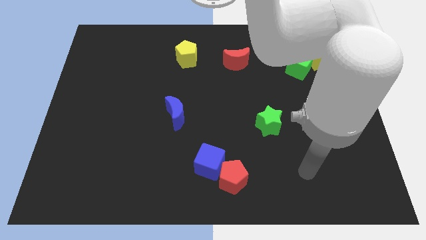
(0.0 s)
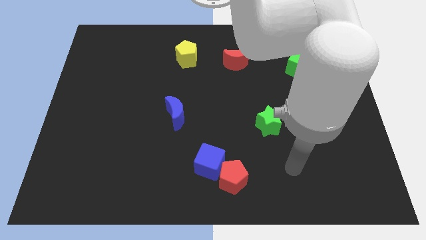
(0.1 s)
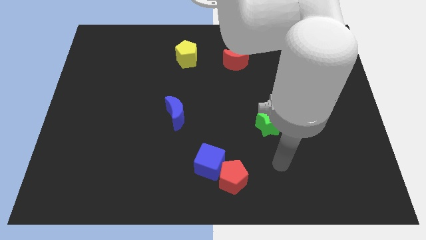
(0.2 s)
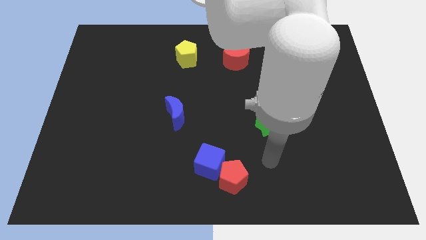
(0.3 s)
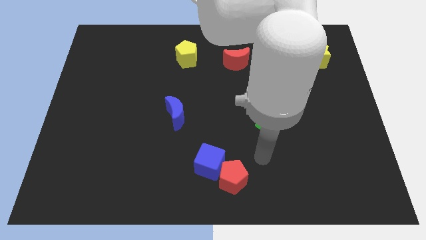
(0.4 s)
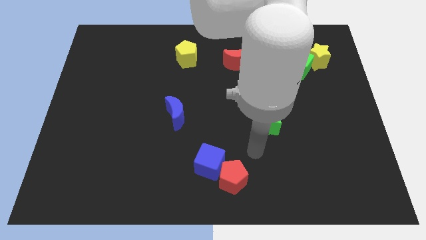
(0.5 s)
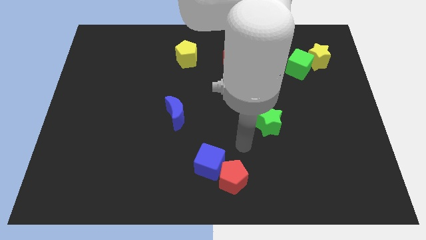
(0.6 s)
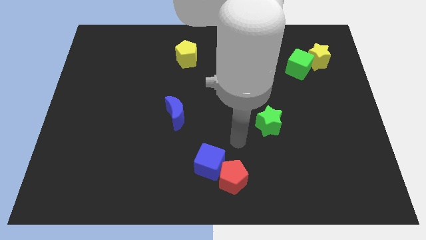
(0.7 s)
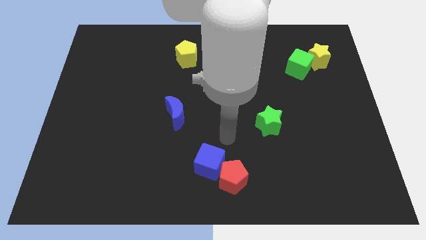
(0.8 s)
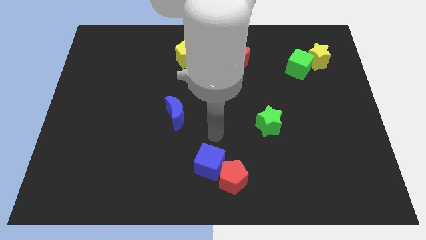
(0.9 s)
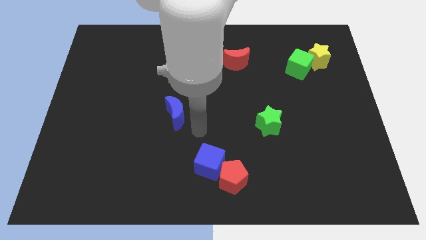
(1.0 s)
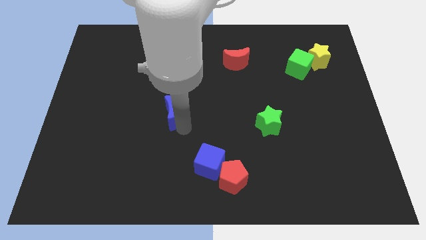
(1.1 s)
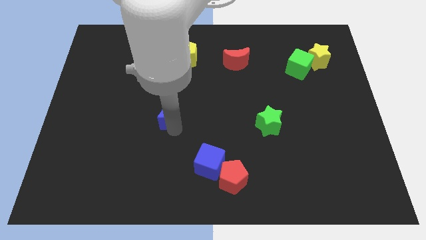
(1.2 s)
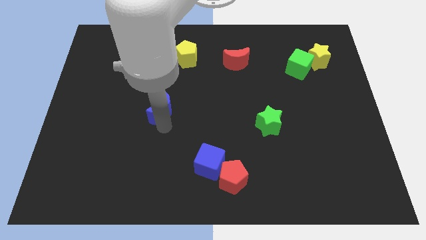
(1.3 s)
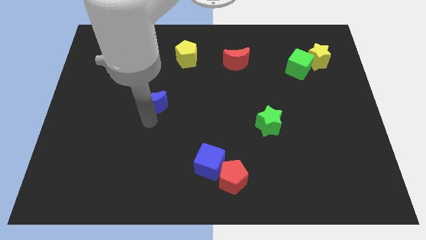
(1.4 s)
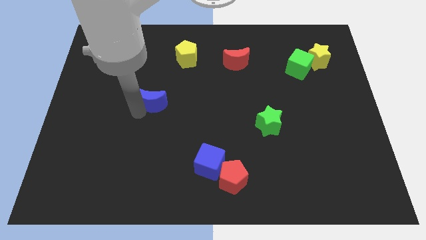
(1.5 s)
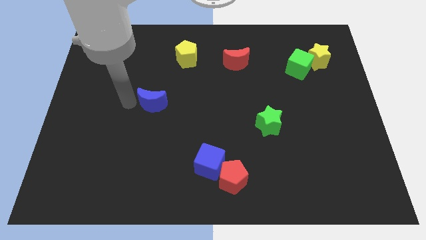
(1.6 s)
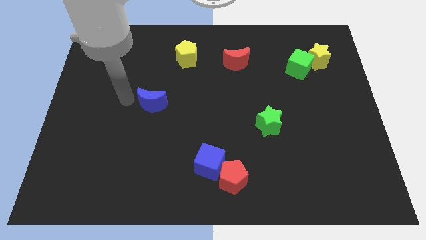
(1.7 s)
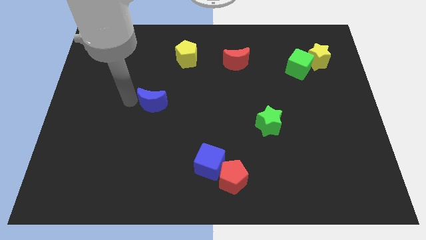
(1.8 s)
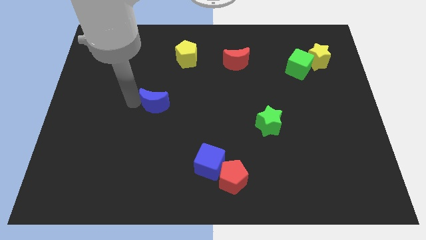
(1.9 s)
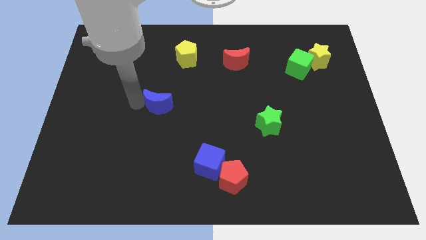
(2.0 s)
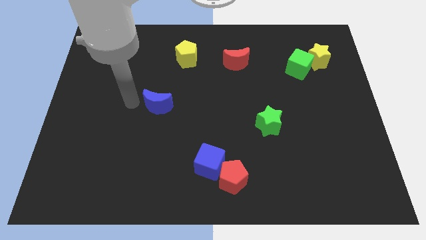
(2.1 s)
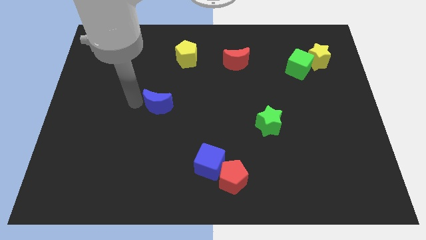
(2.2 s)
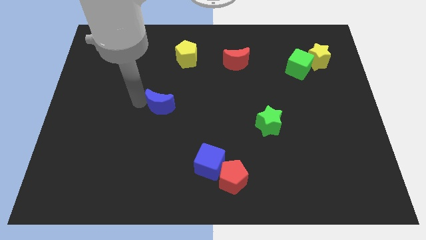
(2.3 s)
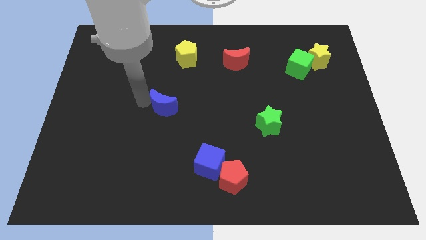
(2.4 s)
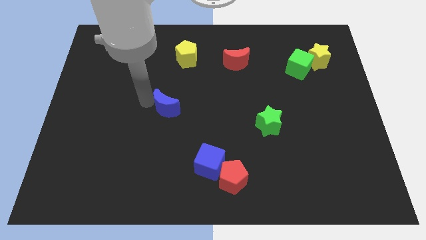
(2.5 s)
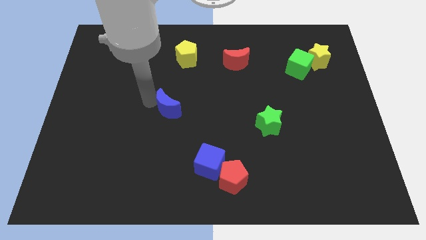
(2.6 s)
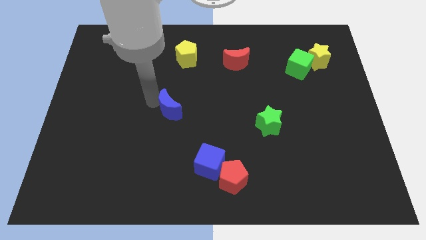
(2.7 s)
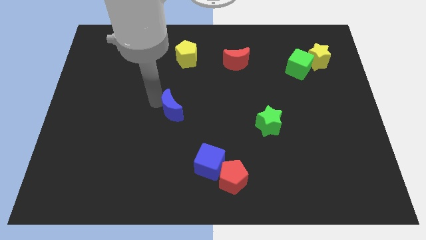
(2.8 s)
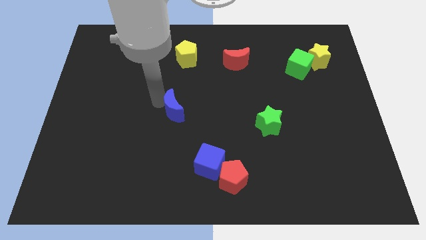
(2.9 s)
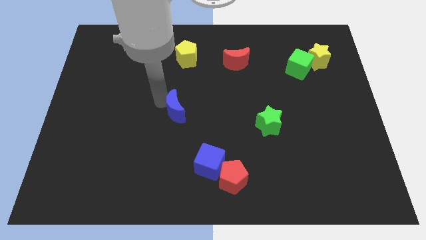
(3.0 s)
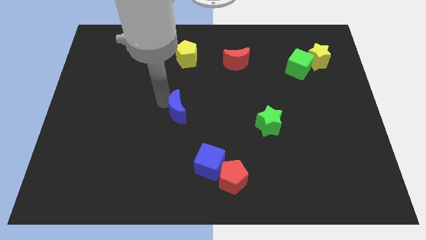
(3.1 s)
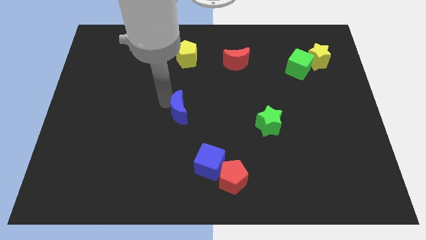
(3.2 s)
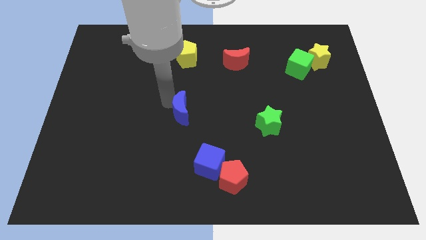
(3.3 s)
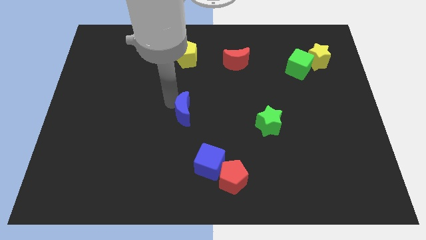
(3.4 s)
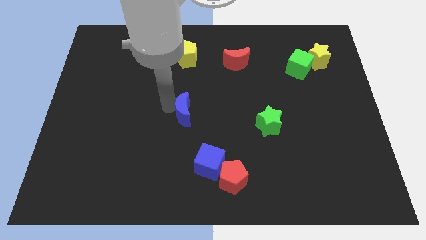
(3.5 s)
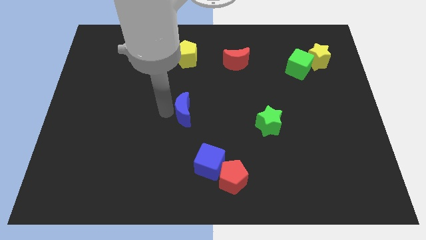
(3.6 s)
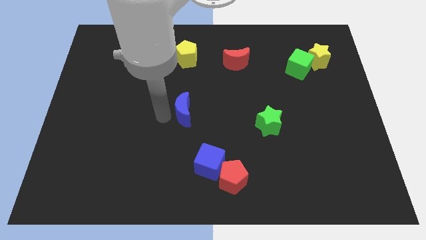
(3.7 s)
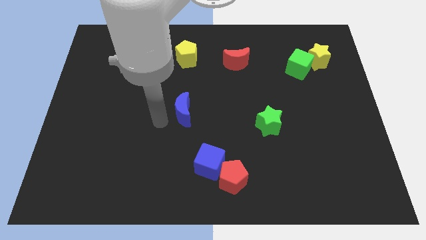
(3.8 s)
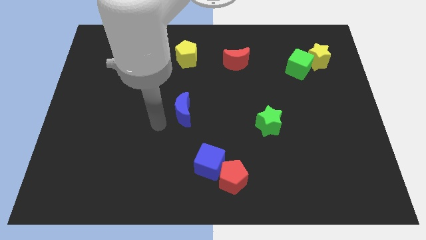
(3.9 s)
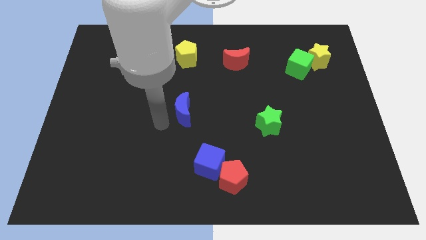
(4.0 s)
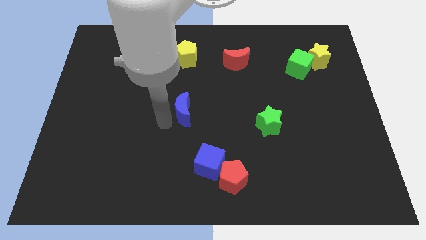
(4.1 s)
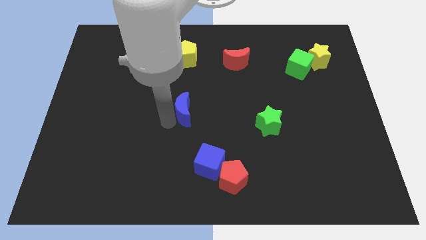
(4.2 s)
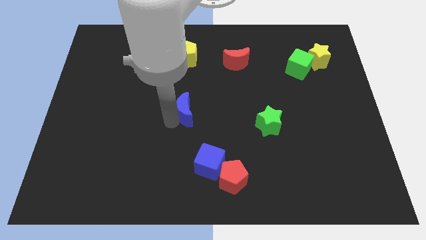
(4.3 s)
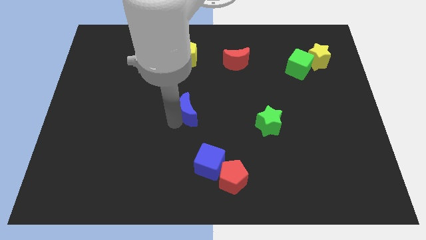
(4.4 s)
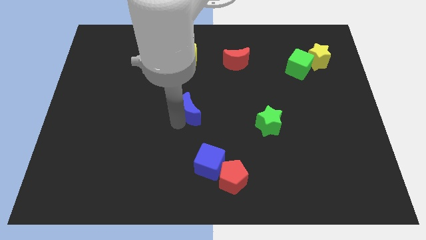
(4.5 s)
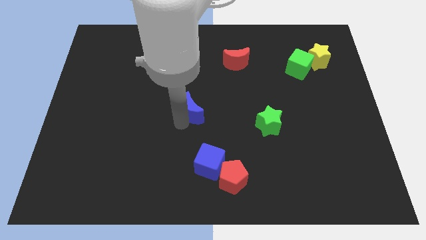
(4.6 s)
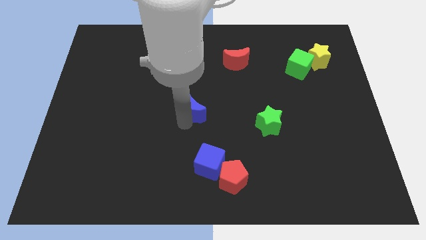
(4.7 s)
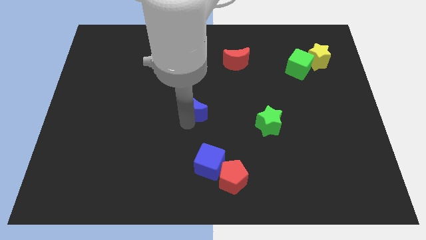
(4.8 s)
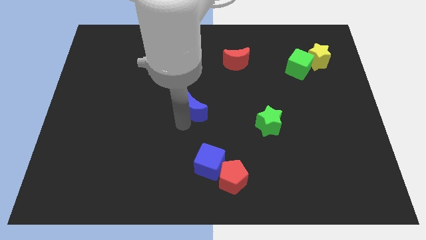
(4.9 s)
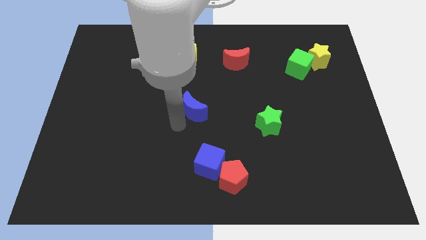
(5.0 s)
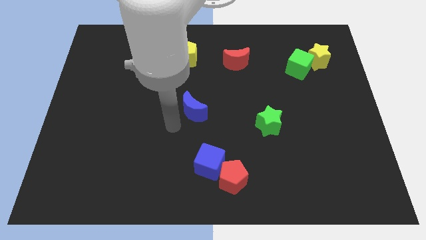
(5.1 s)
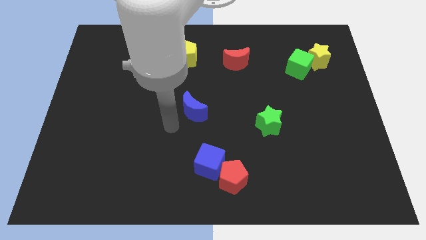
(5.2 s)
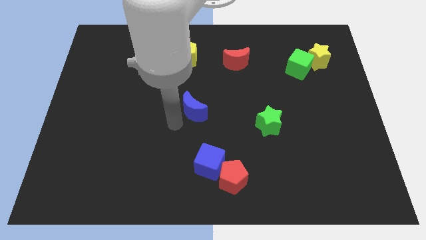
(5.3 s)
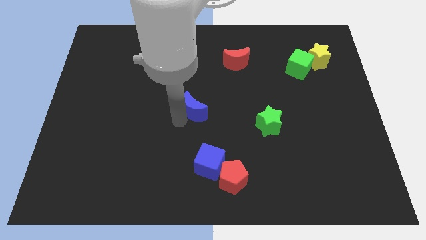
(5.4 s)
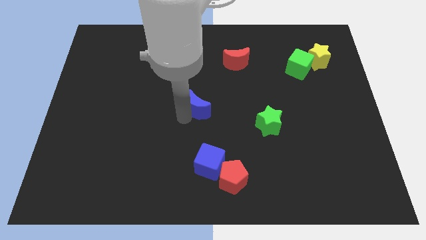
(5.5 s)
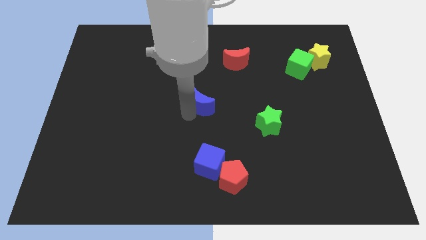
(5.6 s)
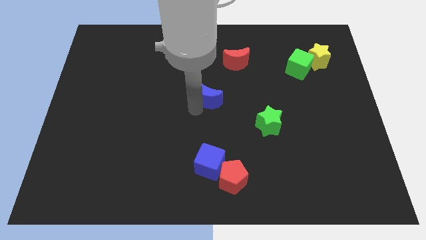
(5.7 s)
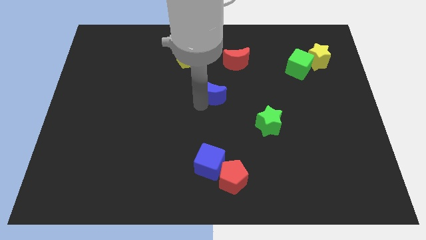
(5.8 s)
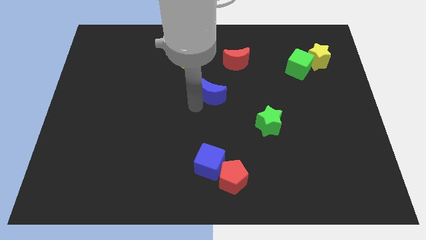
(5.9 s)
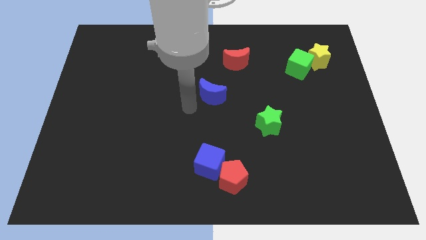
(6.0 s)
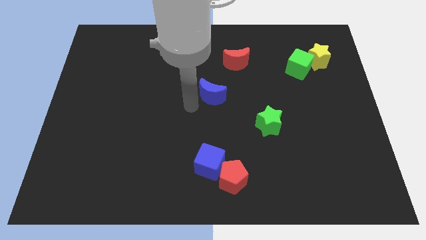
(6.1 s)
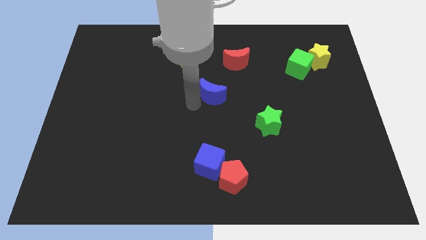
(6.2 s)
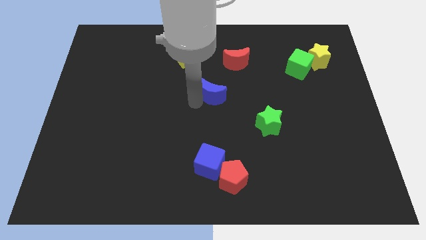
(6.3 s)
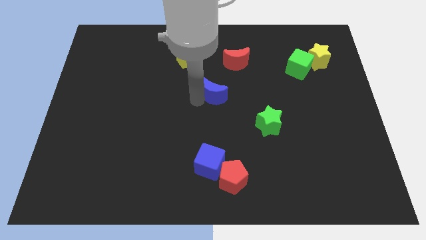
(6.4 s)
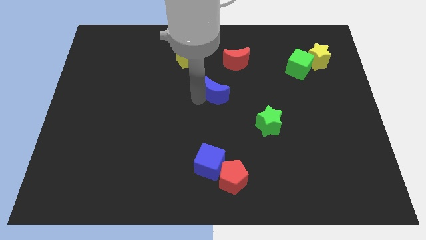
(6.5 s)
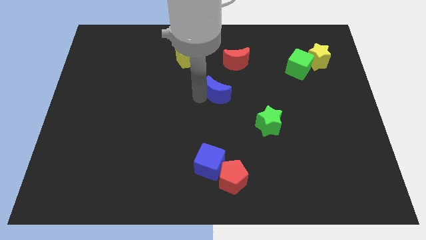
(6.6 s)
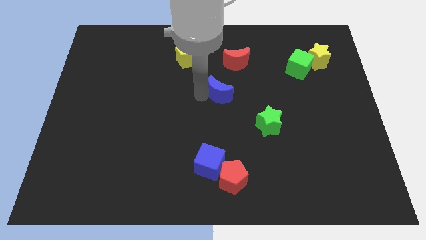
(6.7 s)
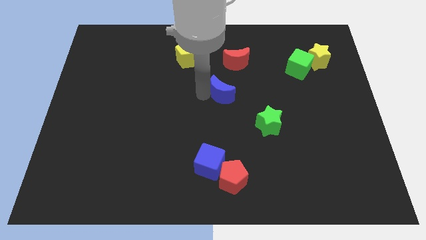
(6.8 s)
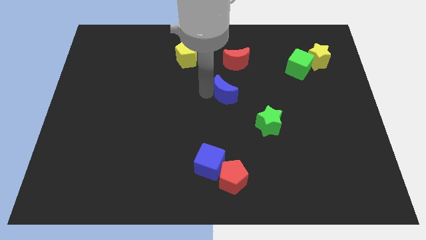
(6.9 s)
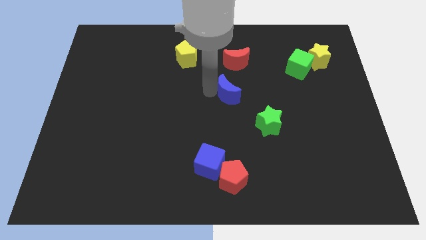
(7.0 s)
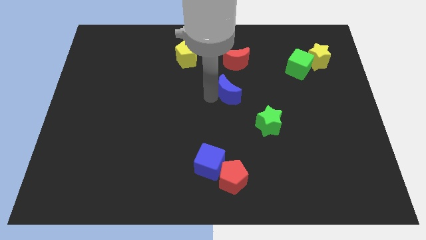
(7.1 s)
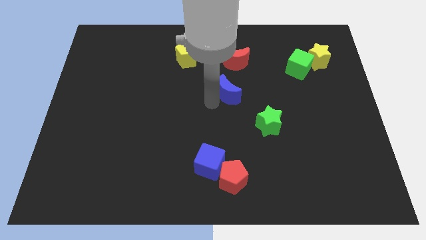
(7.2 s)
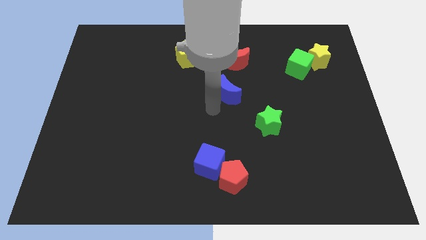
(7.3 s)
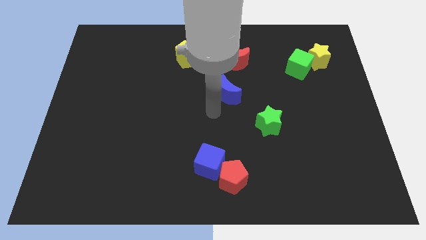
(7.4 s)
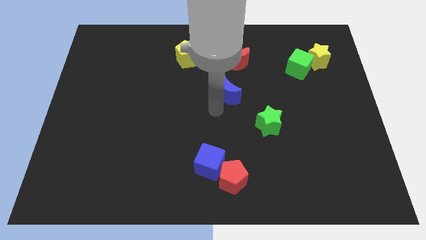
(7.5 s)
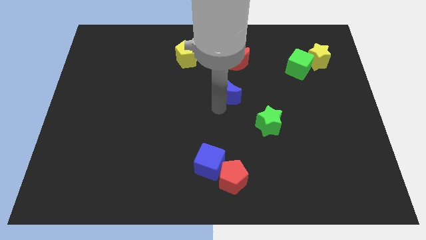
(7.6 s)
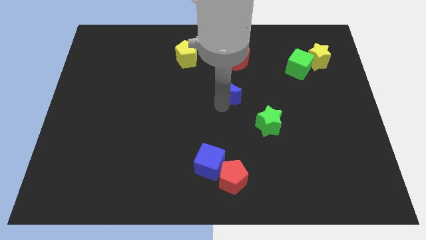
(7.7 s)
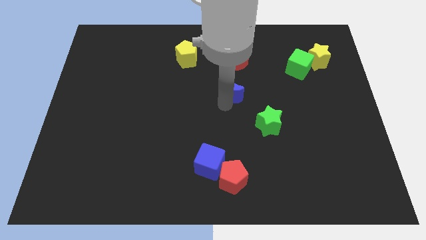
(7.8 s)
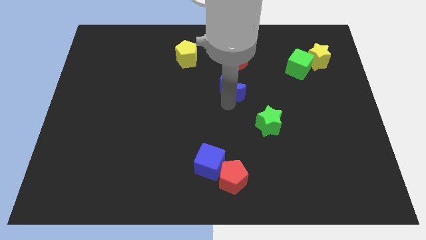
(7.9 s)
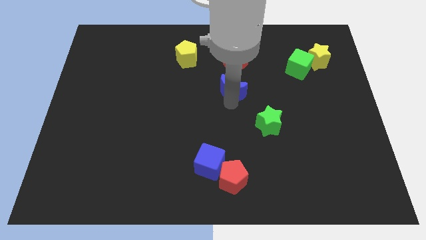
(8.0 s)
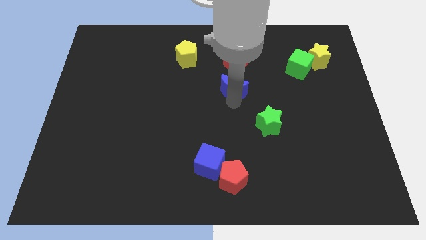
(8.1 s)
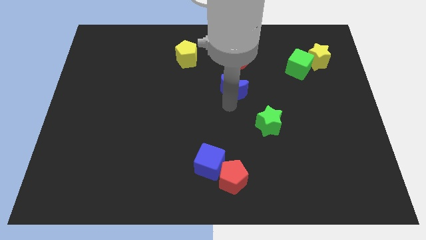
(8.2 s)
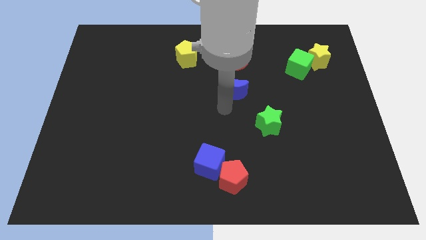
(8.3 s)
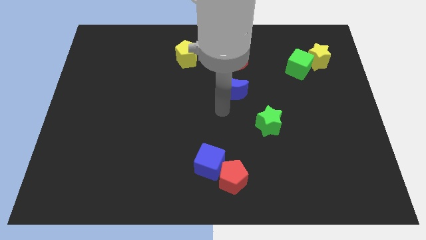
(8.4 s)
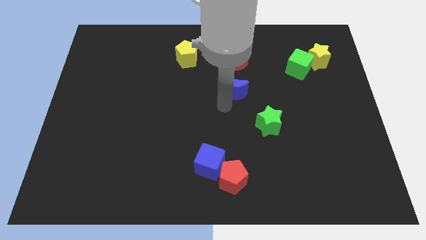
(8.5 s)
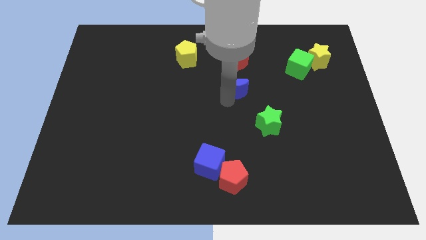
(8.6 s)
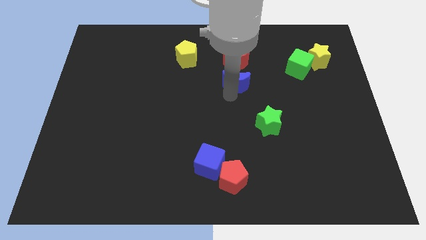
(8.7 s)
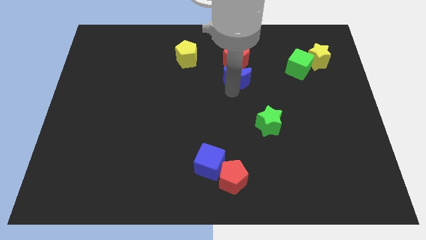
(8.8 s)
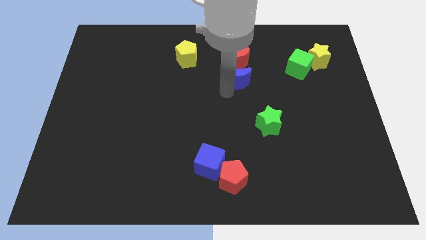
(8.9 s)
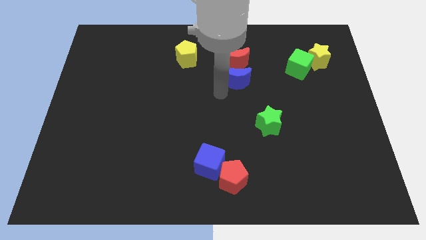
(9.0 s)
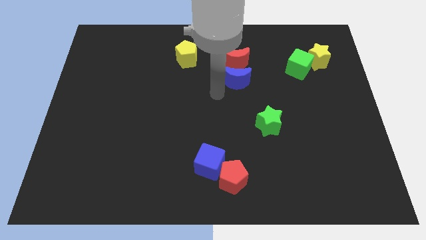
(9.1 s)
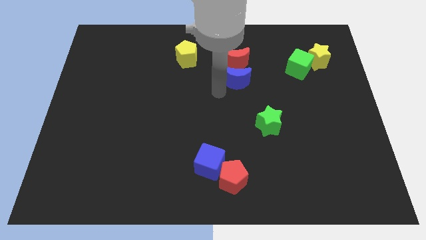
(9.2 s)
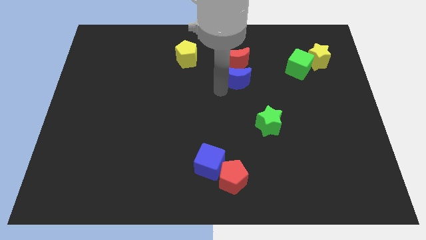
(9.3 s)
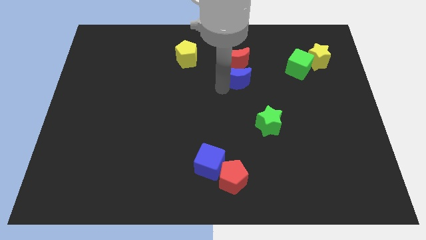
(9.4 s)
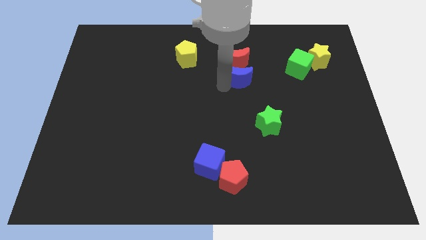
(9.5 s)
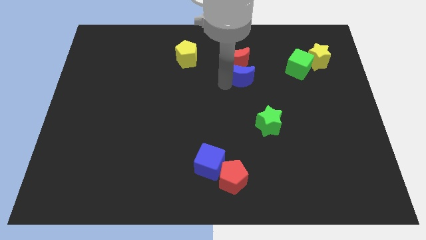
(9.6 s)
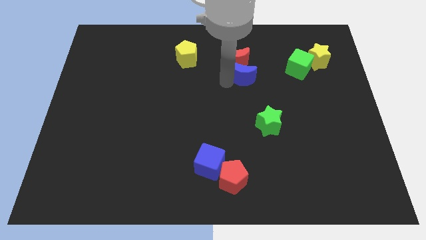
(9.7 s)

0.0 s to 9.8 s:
push the blue moon just left of the green cube
